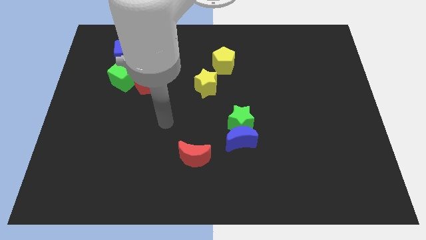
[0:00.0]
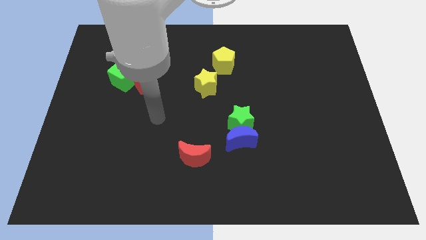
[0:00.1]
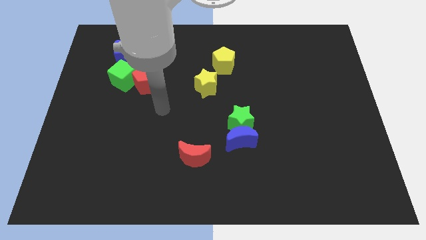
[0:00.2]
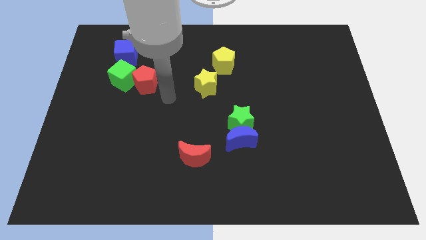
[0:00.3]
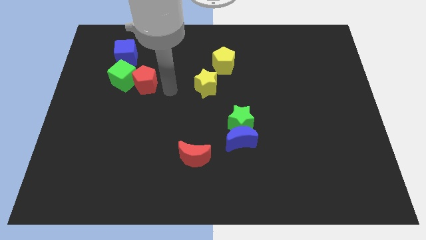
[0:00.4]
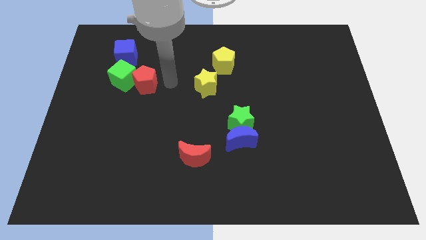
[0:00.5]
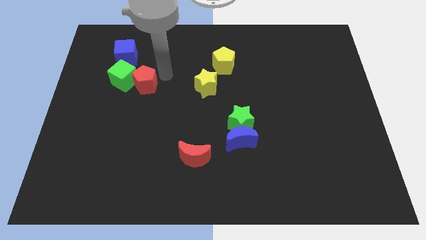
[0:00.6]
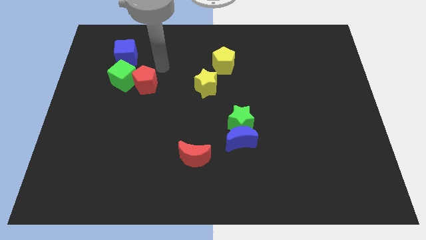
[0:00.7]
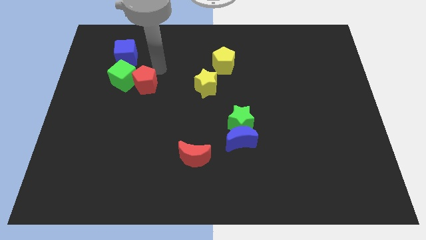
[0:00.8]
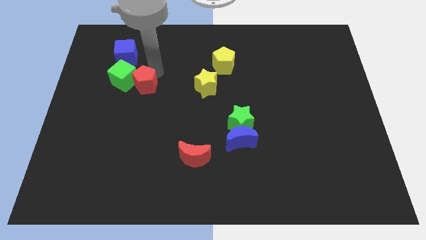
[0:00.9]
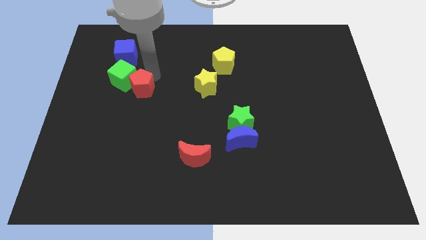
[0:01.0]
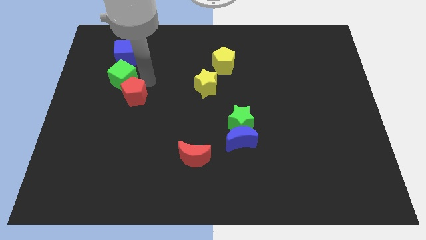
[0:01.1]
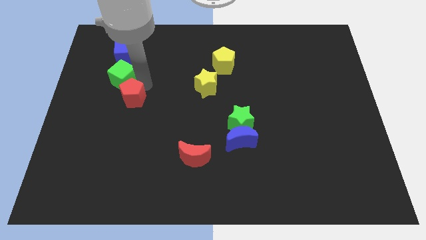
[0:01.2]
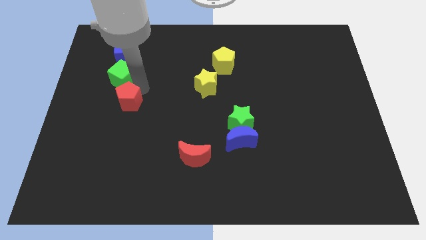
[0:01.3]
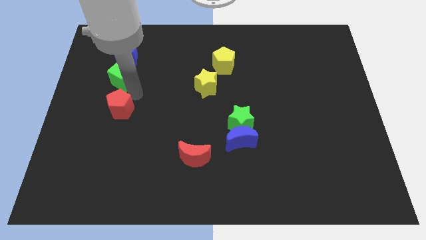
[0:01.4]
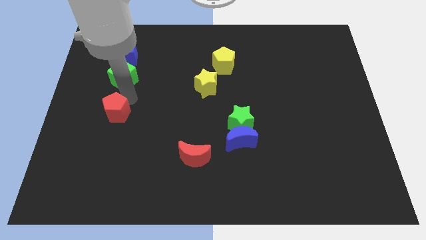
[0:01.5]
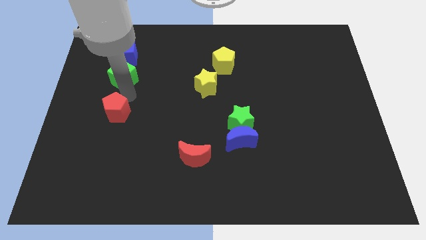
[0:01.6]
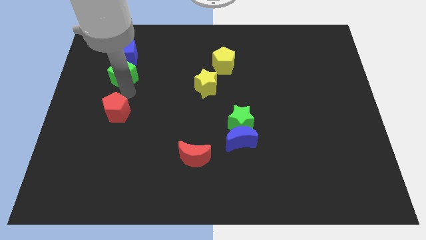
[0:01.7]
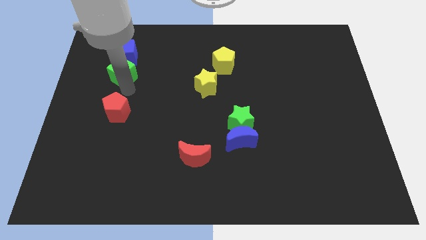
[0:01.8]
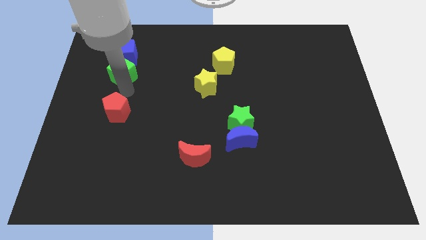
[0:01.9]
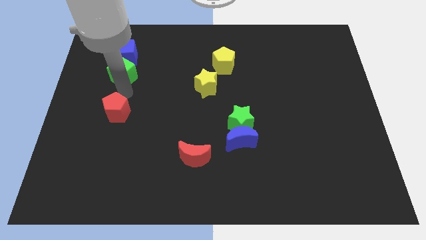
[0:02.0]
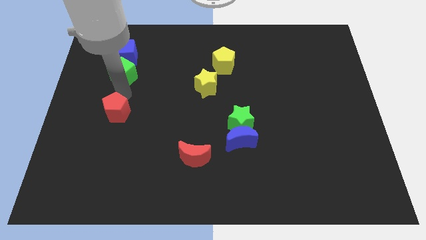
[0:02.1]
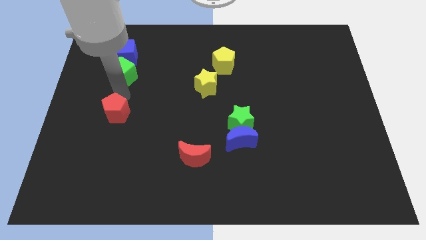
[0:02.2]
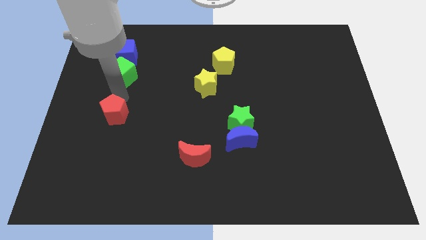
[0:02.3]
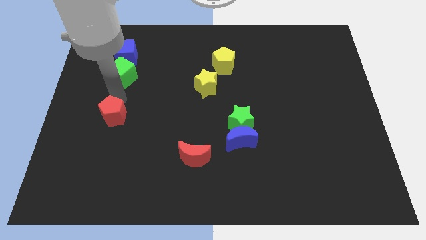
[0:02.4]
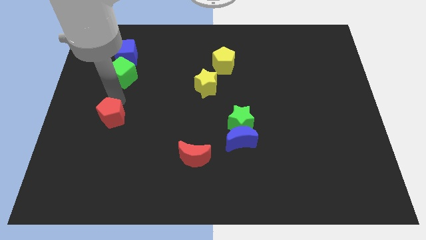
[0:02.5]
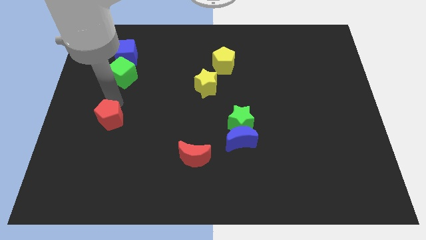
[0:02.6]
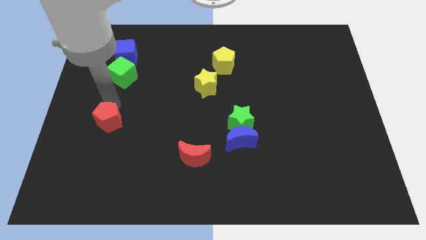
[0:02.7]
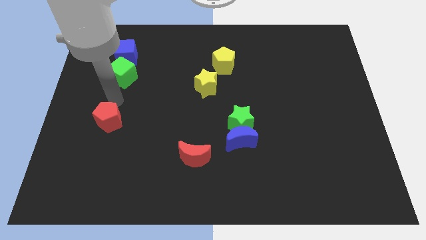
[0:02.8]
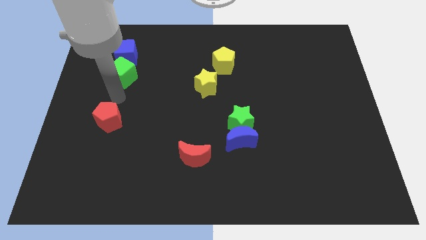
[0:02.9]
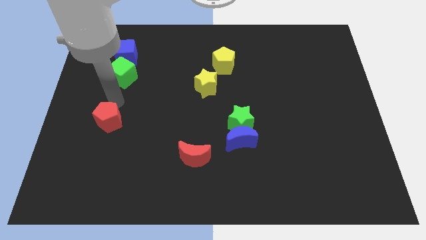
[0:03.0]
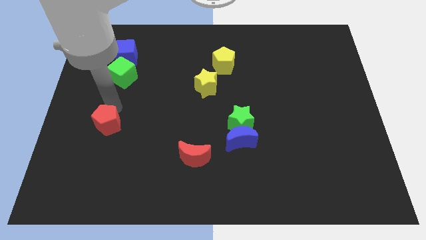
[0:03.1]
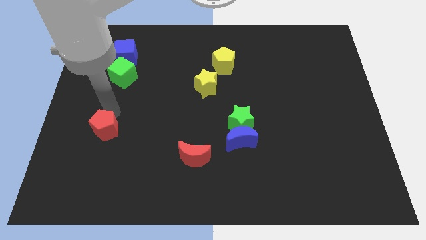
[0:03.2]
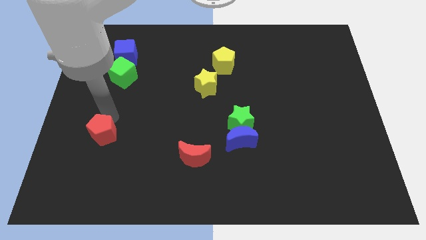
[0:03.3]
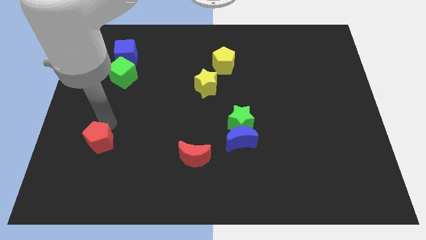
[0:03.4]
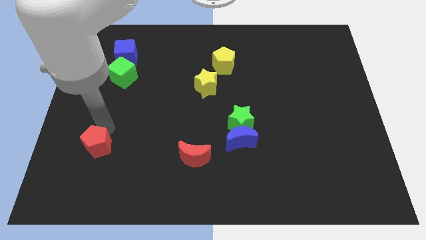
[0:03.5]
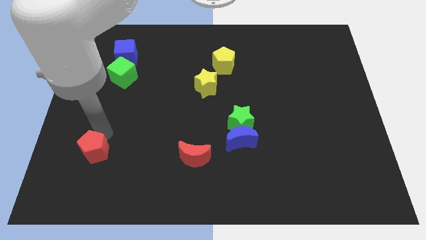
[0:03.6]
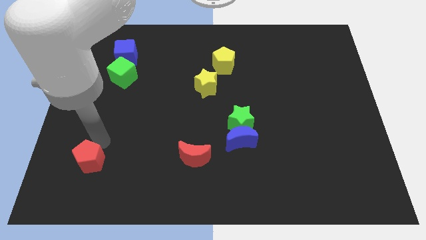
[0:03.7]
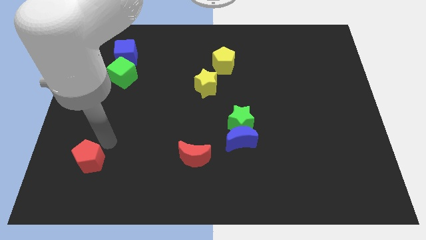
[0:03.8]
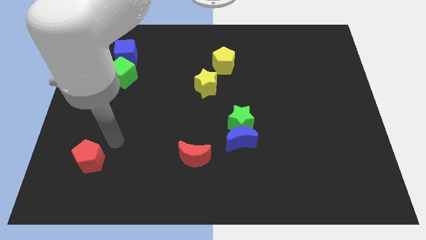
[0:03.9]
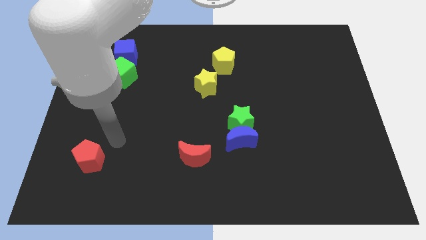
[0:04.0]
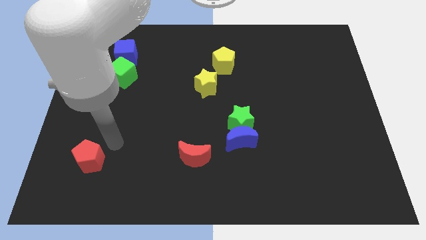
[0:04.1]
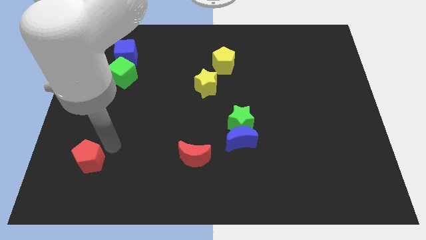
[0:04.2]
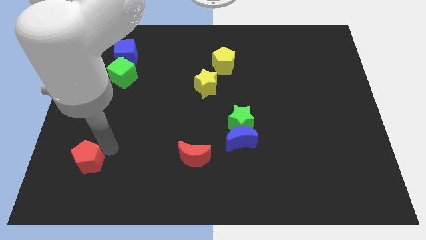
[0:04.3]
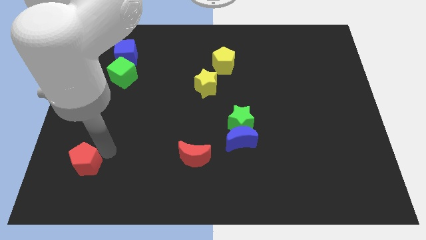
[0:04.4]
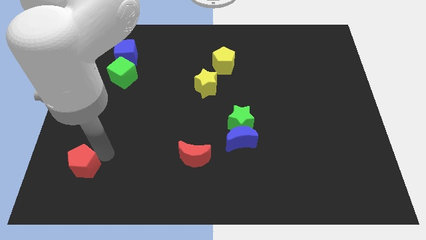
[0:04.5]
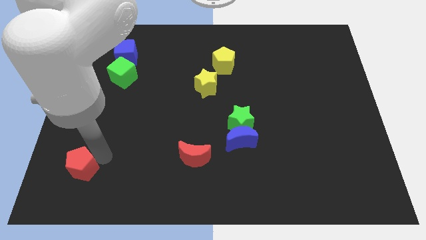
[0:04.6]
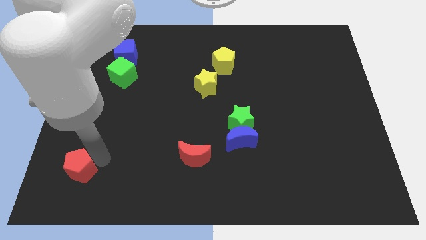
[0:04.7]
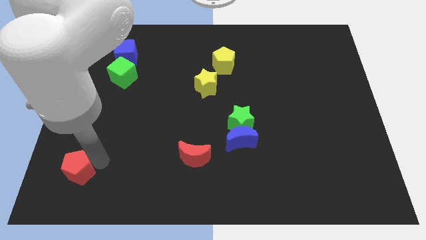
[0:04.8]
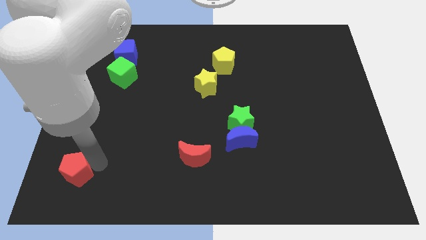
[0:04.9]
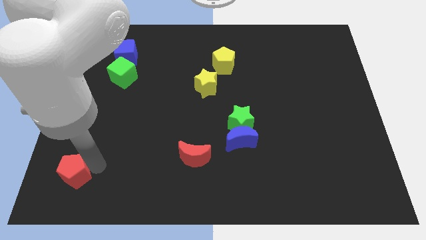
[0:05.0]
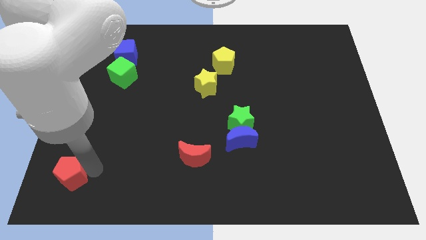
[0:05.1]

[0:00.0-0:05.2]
put the red pentagon to the bottom left of the board
